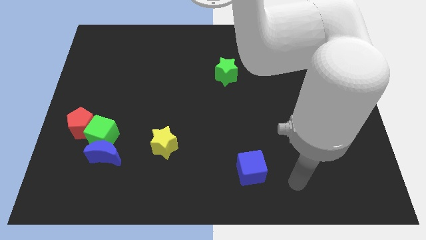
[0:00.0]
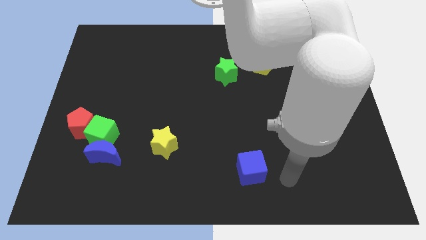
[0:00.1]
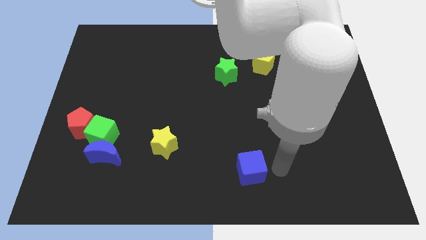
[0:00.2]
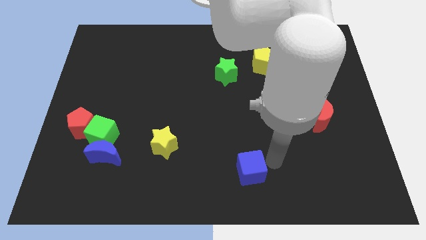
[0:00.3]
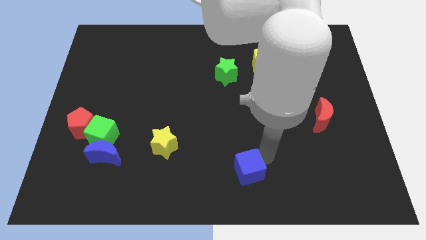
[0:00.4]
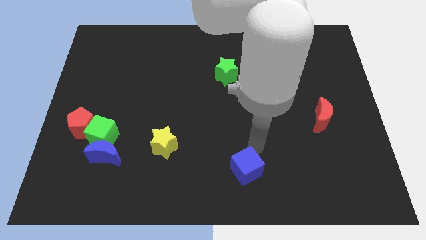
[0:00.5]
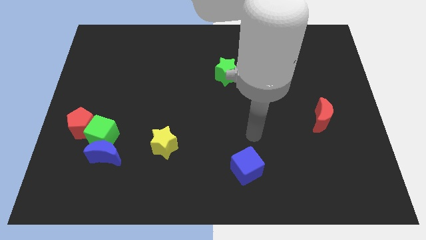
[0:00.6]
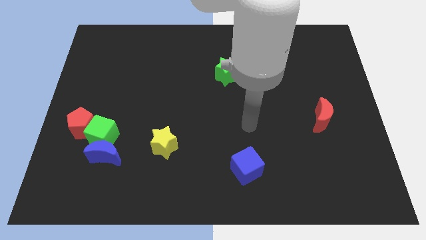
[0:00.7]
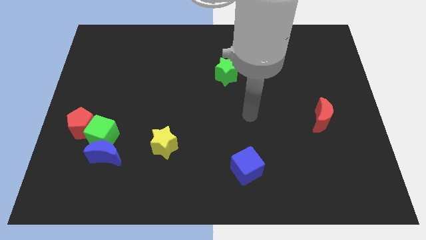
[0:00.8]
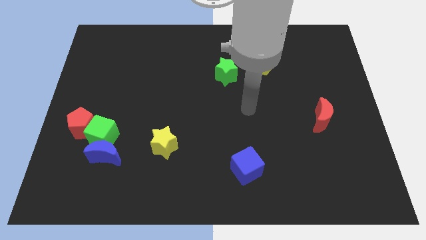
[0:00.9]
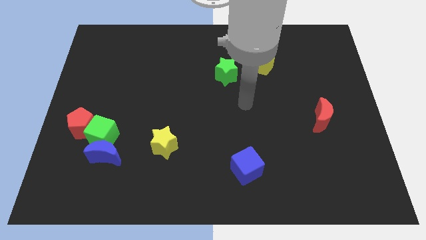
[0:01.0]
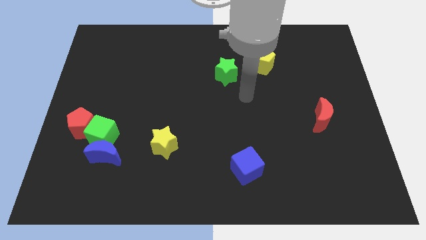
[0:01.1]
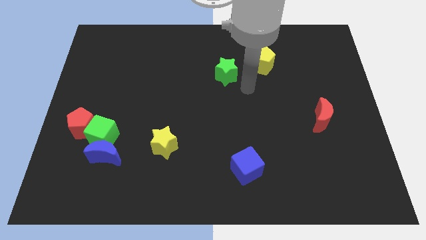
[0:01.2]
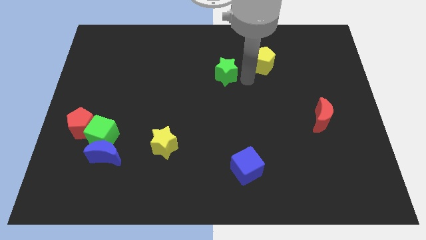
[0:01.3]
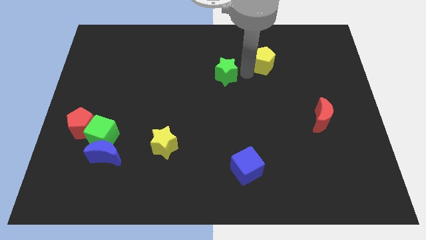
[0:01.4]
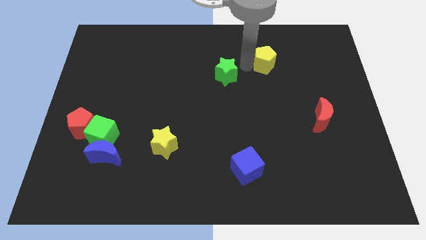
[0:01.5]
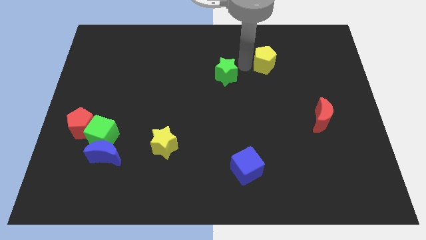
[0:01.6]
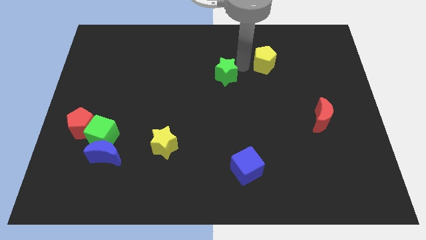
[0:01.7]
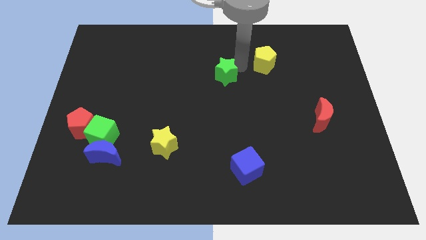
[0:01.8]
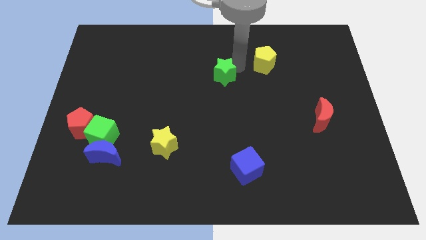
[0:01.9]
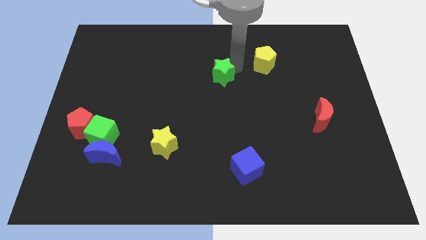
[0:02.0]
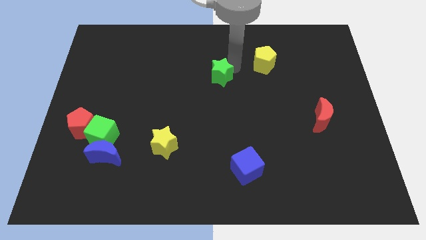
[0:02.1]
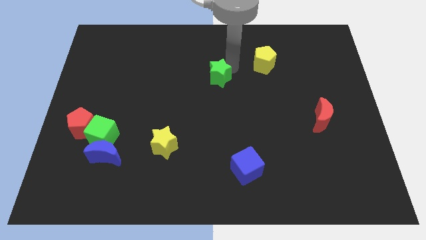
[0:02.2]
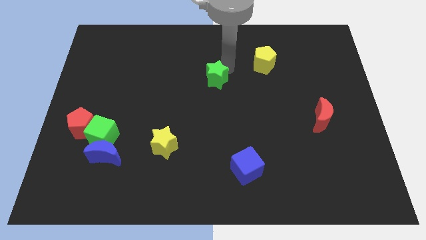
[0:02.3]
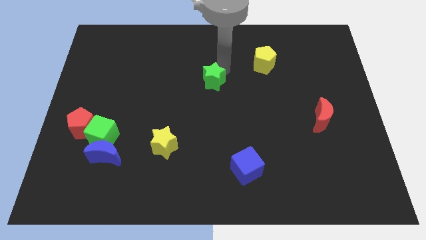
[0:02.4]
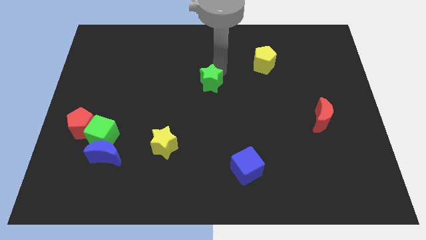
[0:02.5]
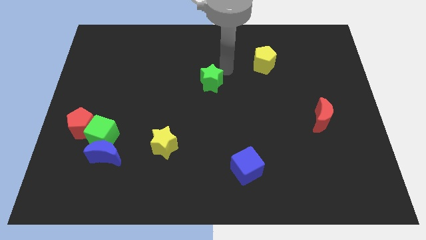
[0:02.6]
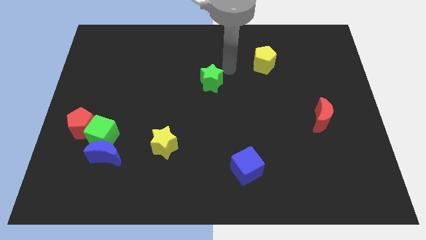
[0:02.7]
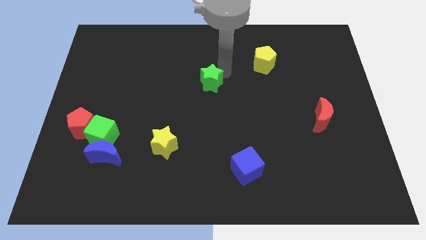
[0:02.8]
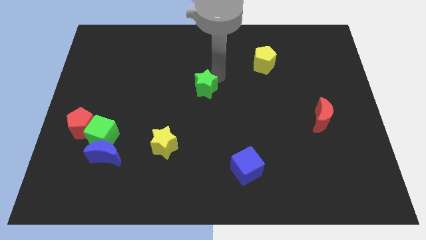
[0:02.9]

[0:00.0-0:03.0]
slightly move the green star down and left diagonally

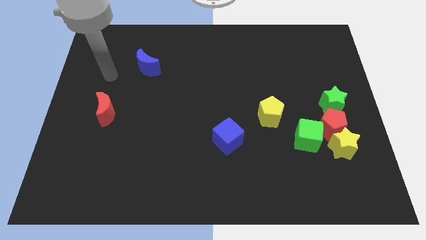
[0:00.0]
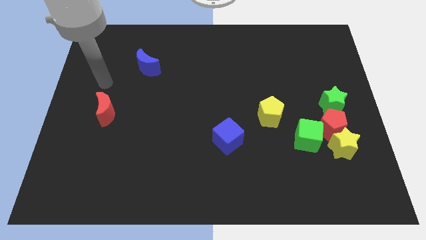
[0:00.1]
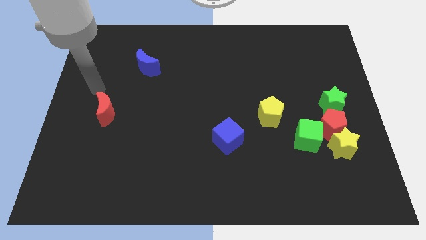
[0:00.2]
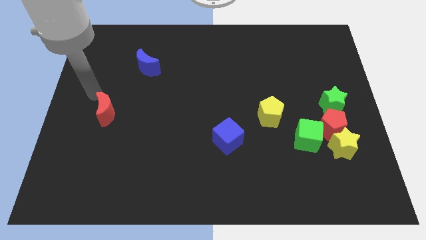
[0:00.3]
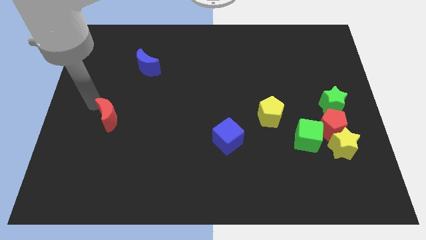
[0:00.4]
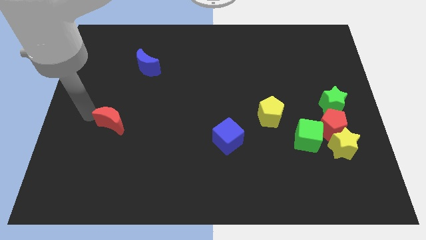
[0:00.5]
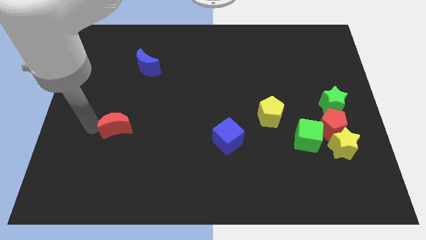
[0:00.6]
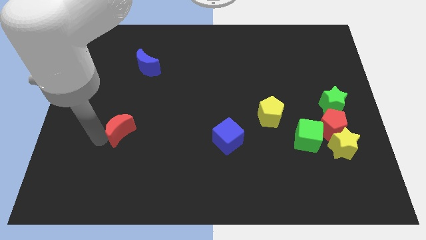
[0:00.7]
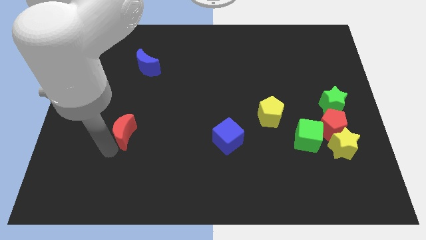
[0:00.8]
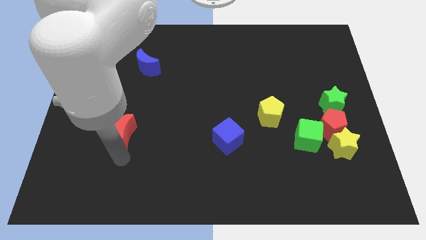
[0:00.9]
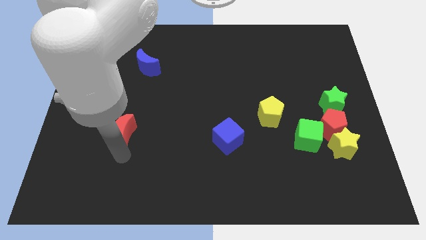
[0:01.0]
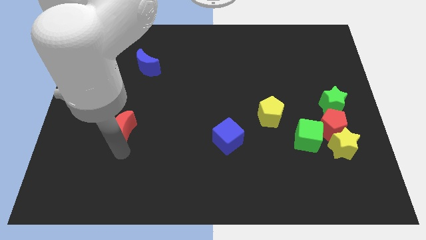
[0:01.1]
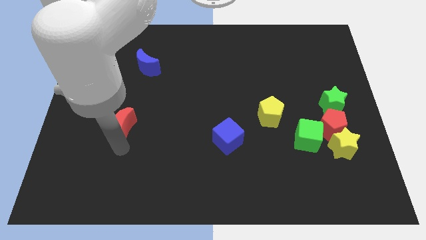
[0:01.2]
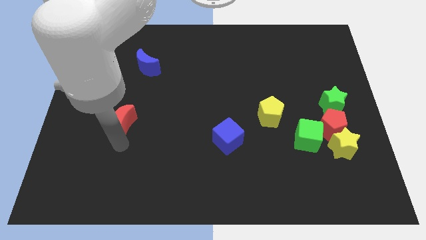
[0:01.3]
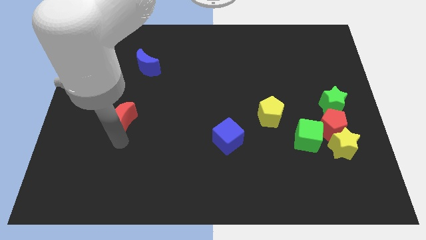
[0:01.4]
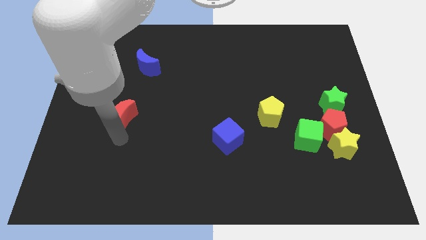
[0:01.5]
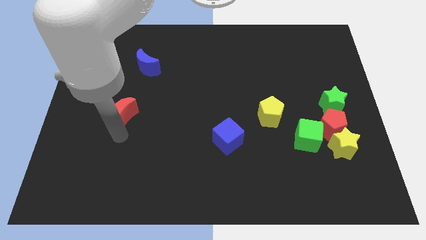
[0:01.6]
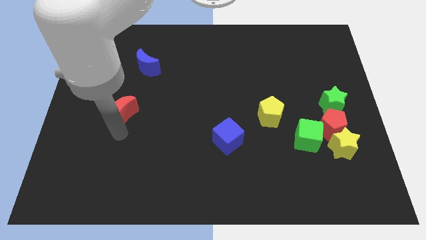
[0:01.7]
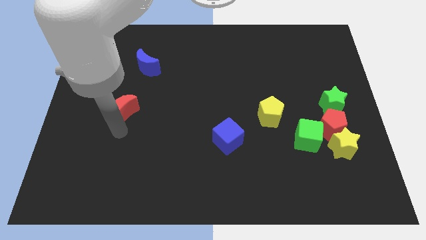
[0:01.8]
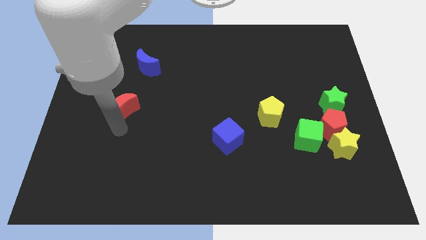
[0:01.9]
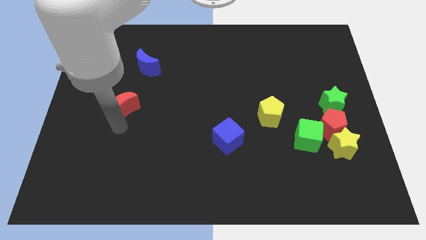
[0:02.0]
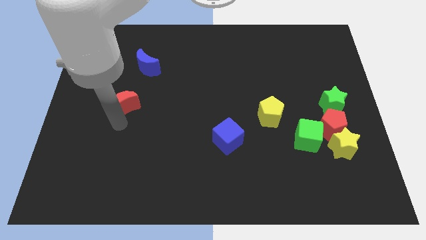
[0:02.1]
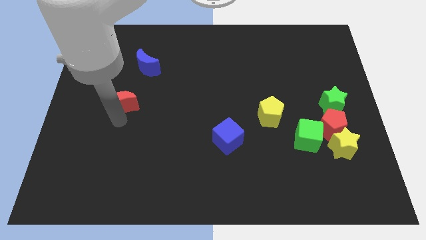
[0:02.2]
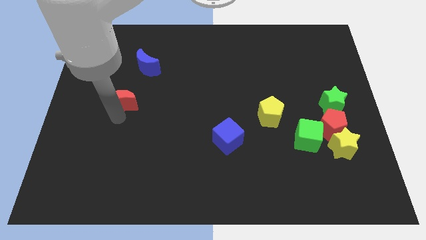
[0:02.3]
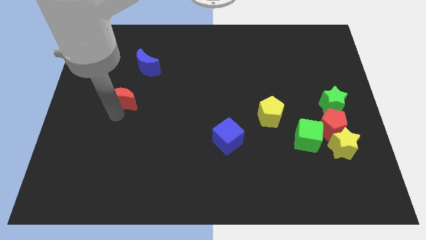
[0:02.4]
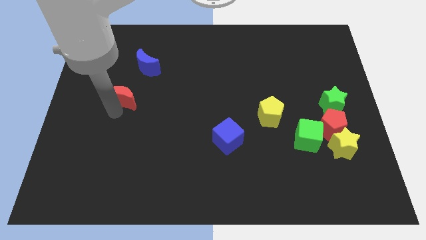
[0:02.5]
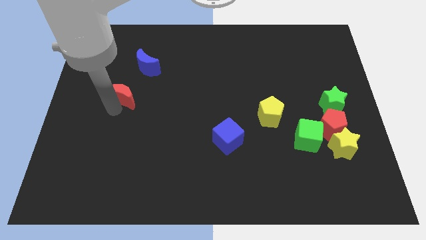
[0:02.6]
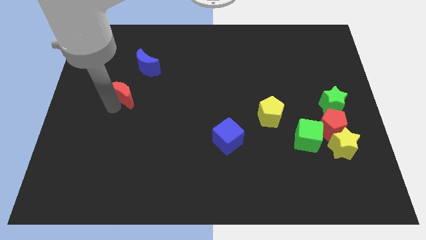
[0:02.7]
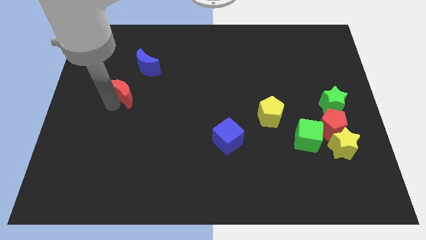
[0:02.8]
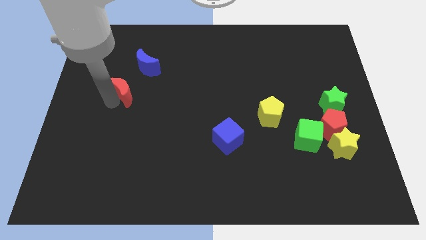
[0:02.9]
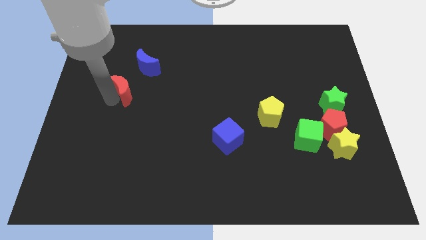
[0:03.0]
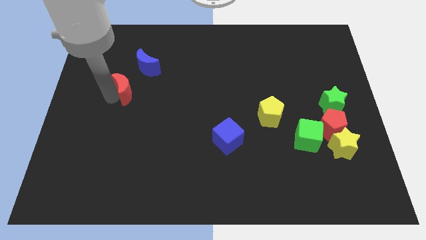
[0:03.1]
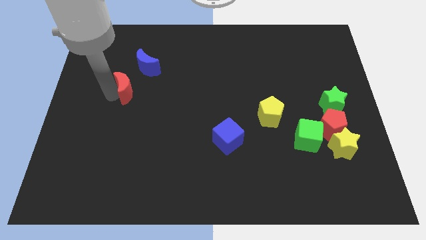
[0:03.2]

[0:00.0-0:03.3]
move the red moon somewhat upwards and to the right

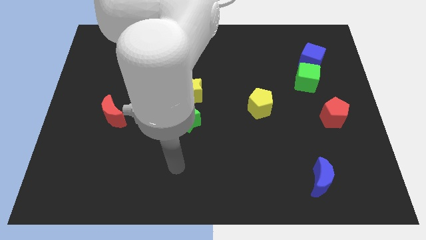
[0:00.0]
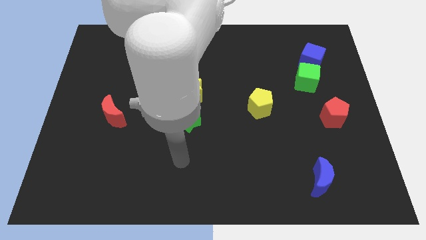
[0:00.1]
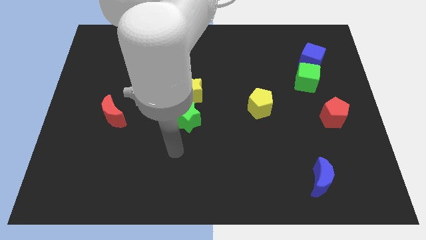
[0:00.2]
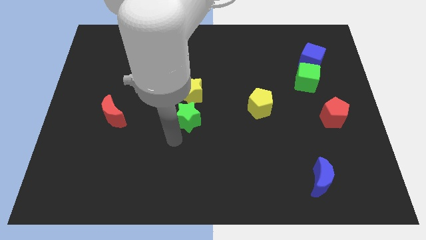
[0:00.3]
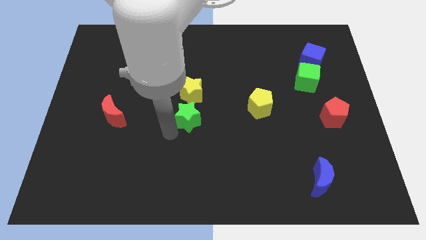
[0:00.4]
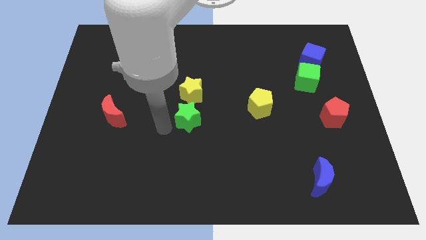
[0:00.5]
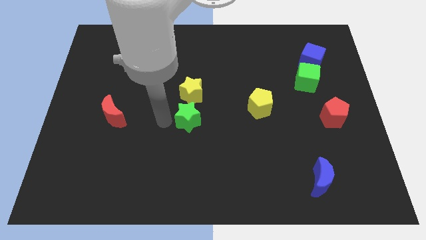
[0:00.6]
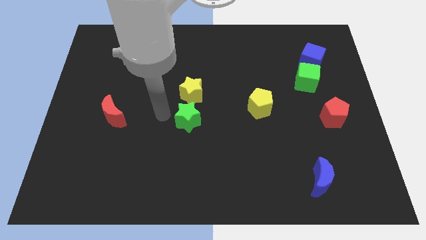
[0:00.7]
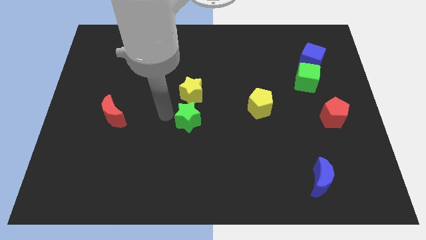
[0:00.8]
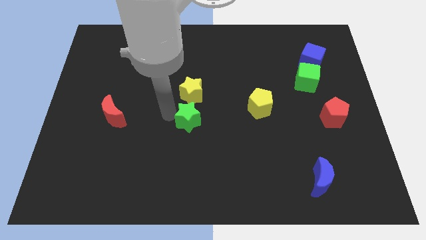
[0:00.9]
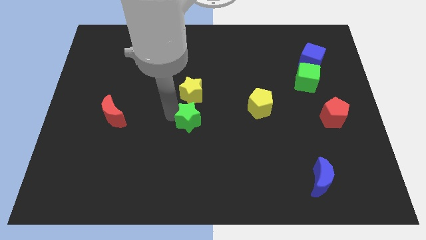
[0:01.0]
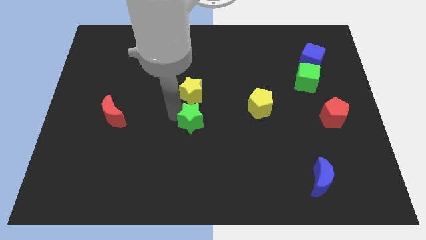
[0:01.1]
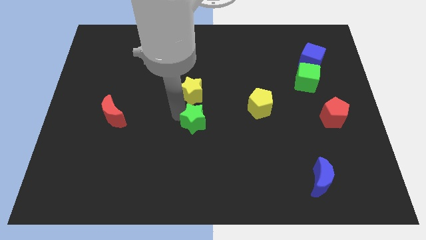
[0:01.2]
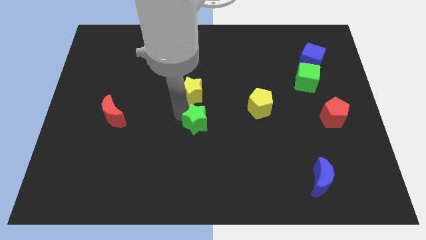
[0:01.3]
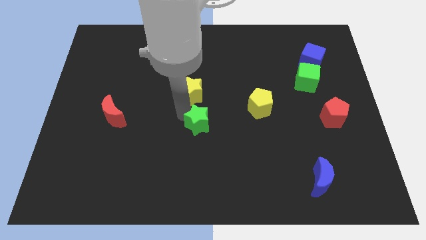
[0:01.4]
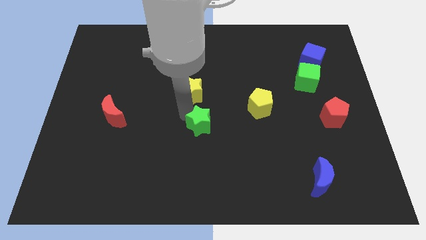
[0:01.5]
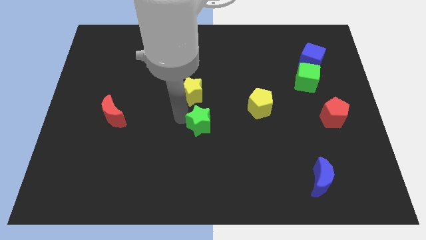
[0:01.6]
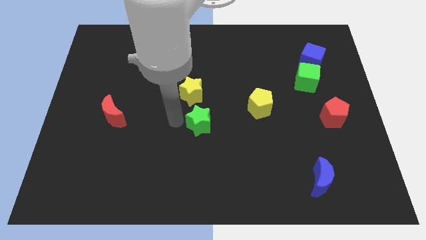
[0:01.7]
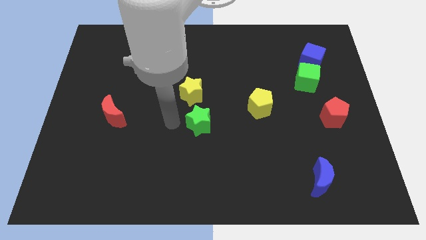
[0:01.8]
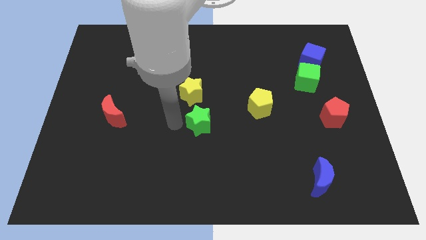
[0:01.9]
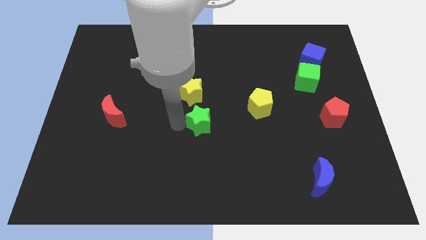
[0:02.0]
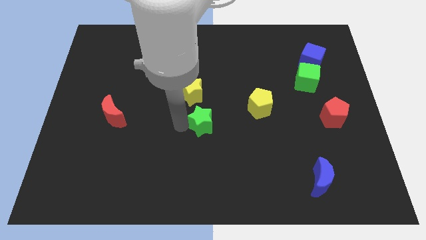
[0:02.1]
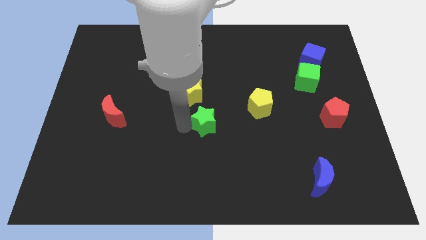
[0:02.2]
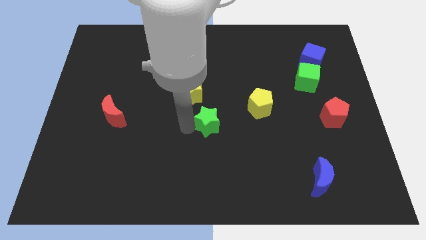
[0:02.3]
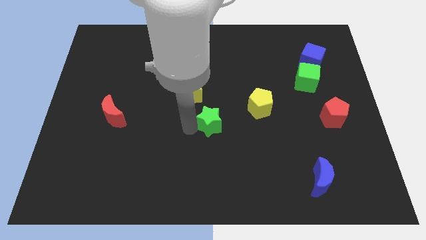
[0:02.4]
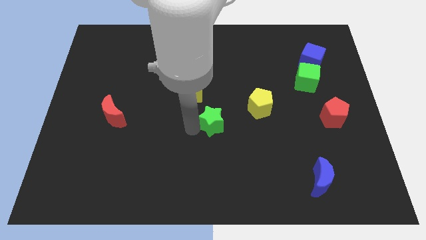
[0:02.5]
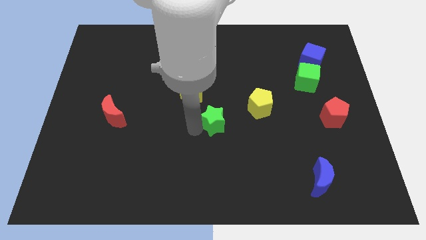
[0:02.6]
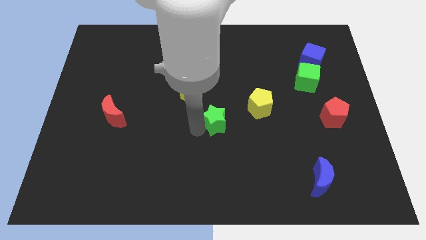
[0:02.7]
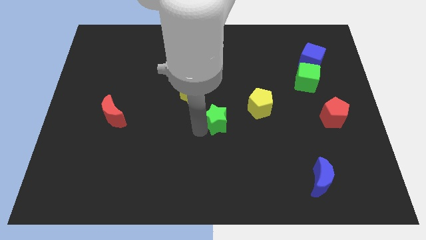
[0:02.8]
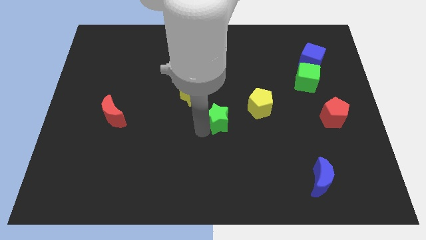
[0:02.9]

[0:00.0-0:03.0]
move the green star right a little bit
